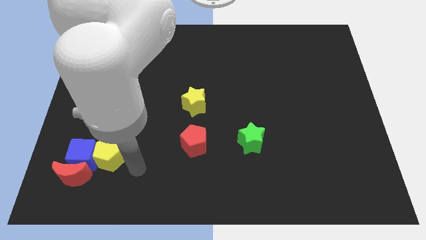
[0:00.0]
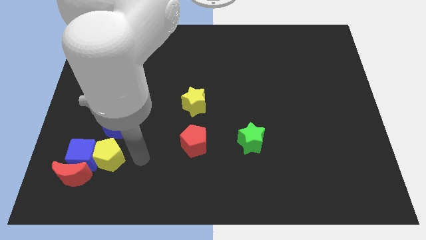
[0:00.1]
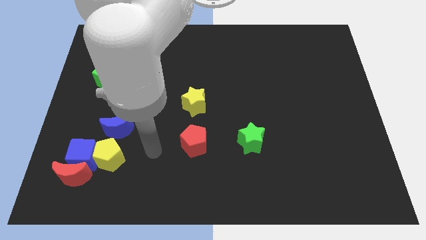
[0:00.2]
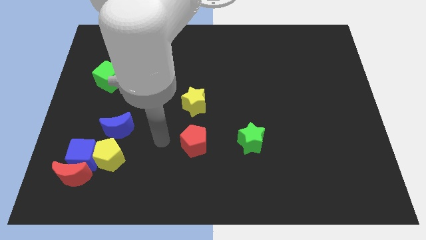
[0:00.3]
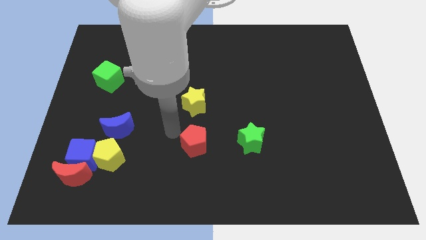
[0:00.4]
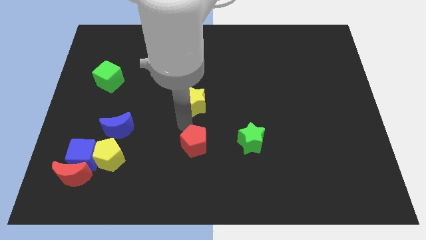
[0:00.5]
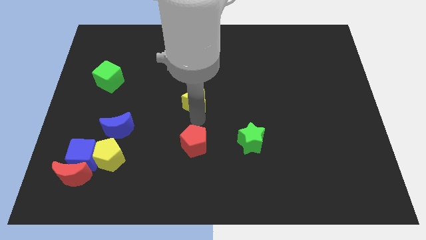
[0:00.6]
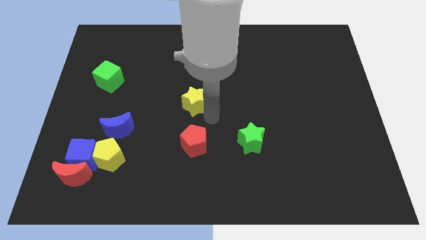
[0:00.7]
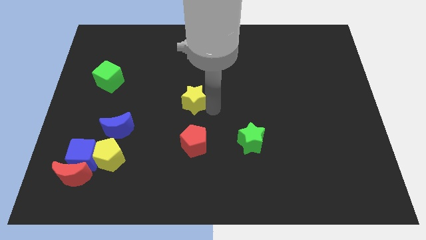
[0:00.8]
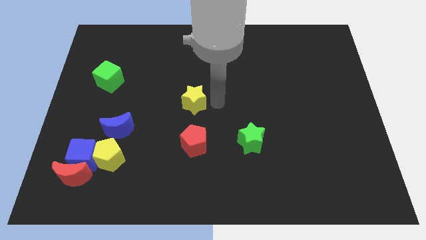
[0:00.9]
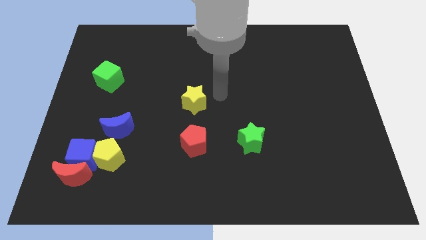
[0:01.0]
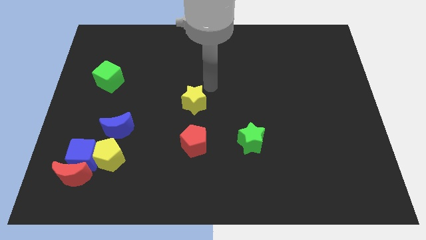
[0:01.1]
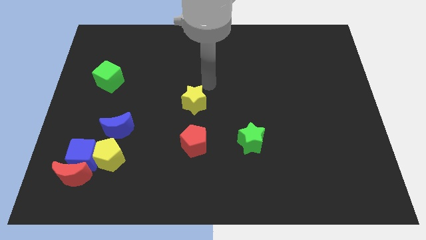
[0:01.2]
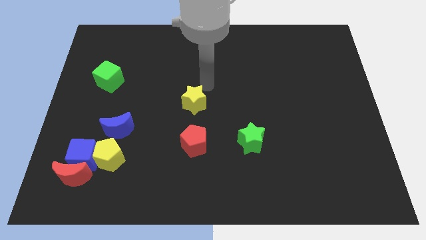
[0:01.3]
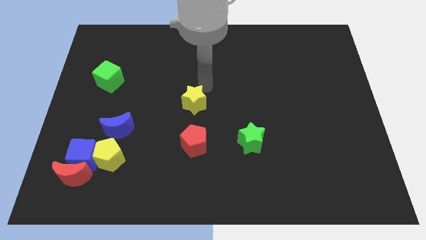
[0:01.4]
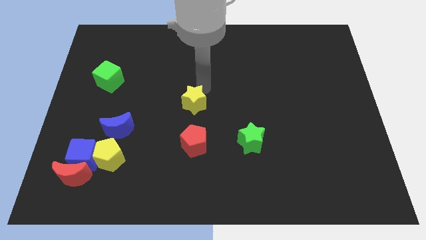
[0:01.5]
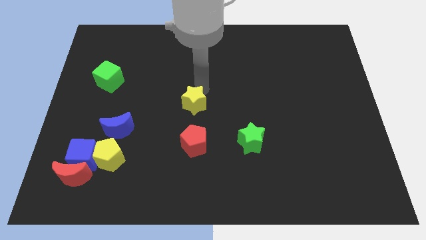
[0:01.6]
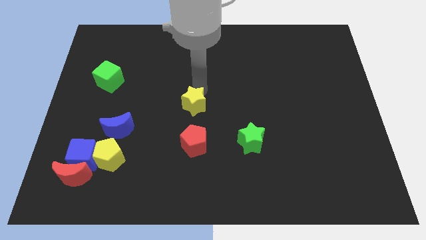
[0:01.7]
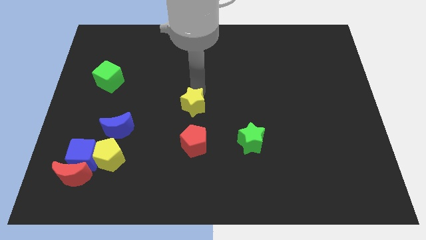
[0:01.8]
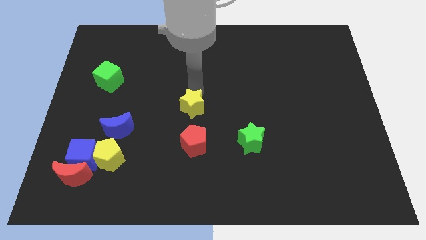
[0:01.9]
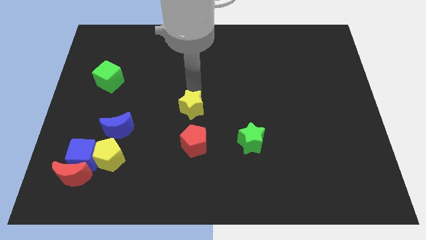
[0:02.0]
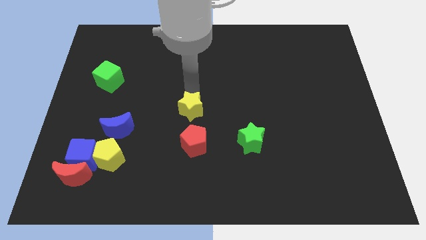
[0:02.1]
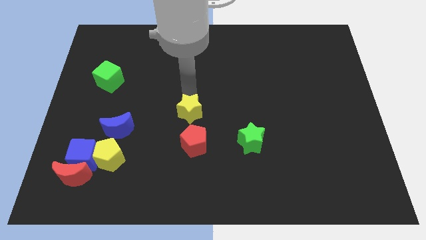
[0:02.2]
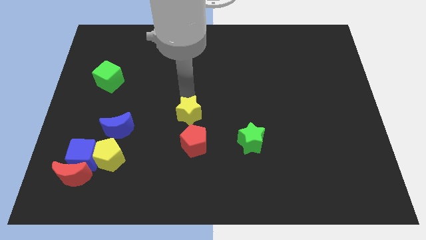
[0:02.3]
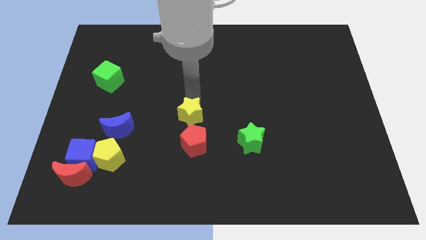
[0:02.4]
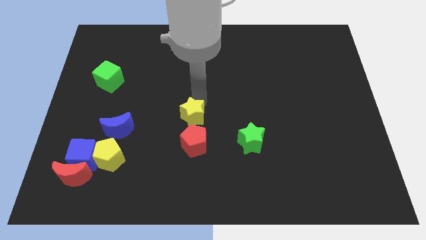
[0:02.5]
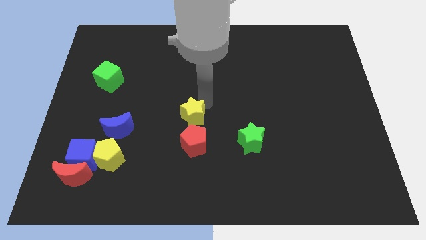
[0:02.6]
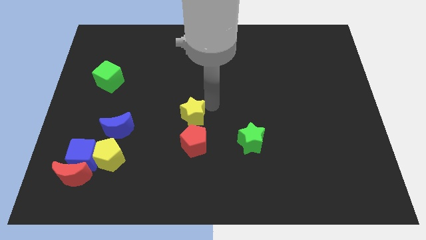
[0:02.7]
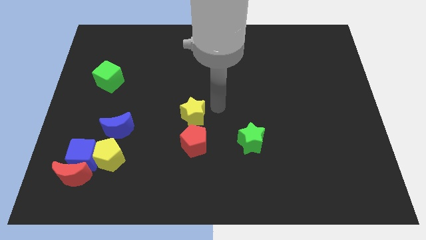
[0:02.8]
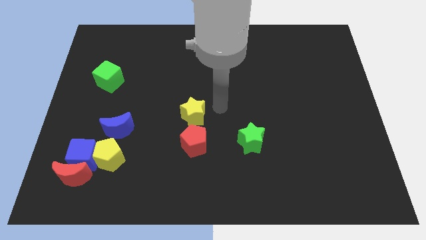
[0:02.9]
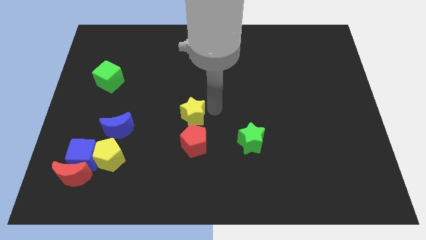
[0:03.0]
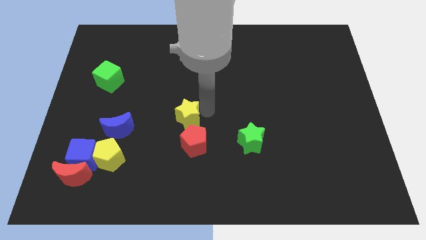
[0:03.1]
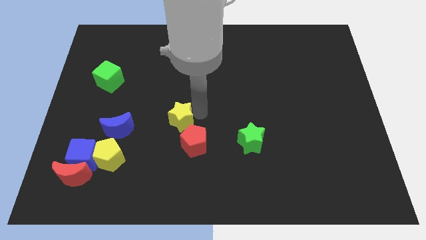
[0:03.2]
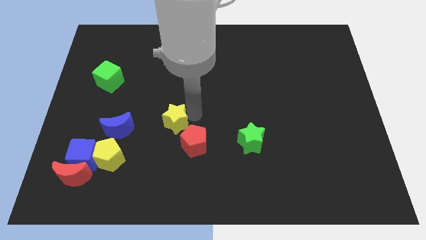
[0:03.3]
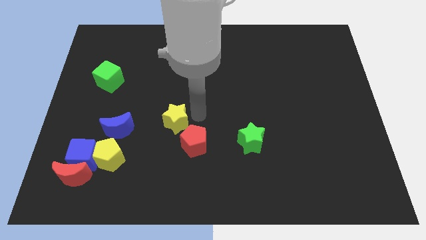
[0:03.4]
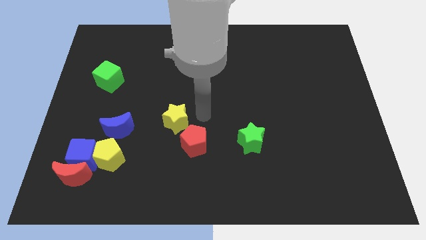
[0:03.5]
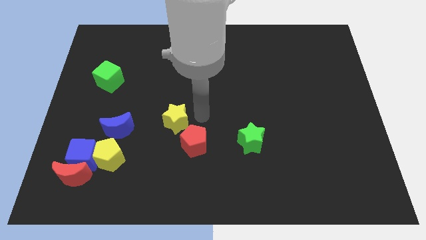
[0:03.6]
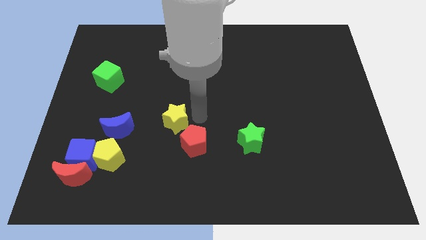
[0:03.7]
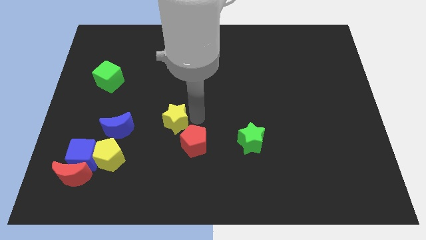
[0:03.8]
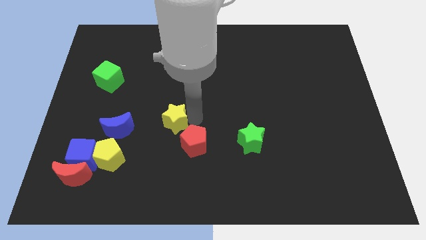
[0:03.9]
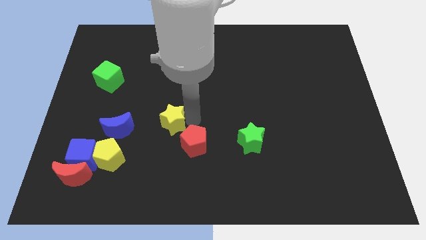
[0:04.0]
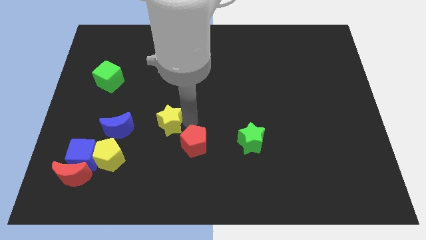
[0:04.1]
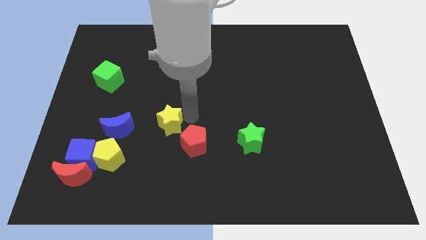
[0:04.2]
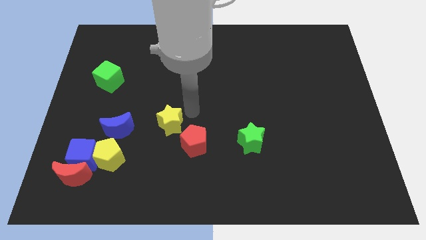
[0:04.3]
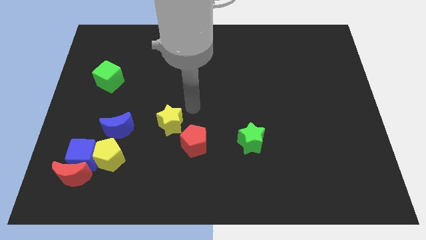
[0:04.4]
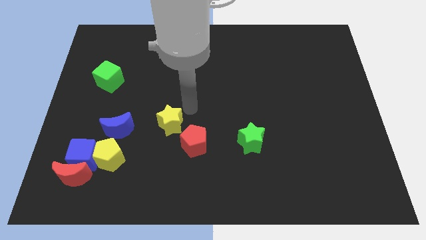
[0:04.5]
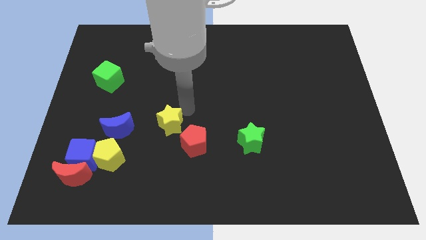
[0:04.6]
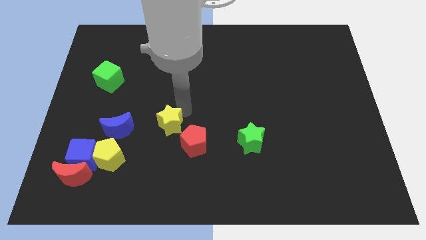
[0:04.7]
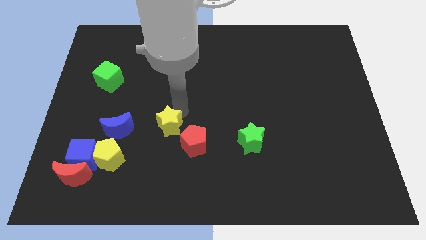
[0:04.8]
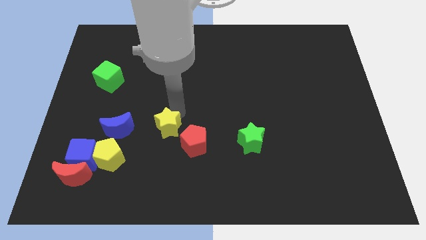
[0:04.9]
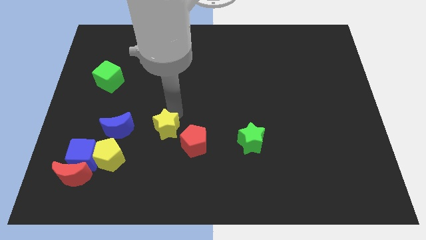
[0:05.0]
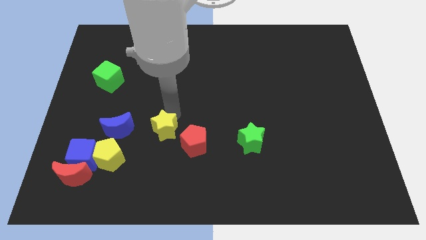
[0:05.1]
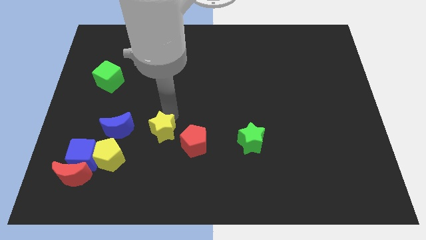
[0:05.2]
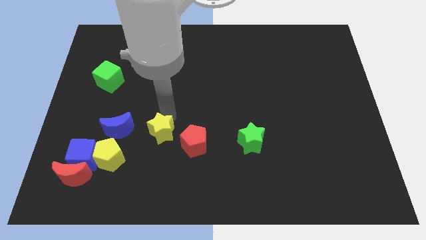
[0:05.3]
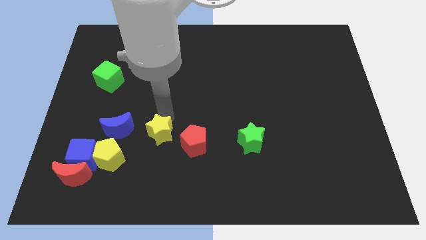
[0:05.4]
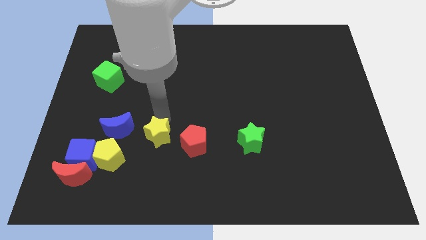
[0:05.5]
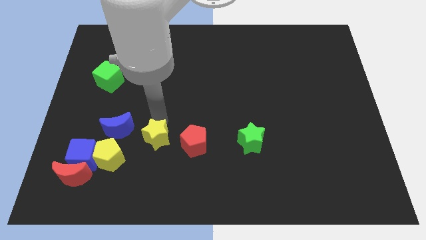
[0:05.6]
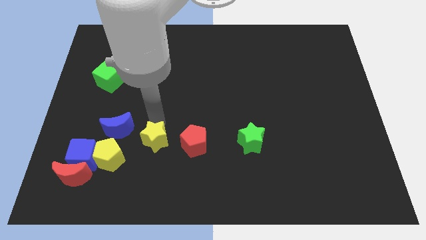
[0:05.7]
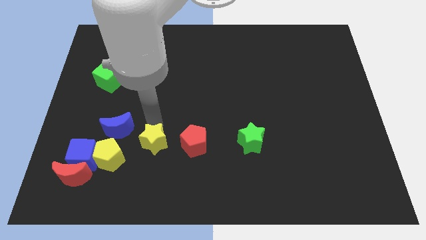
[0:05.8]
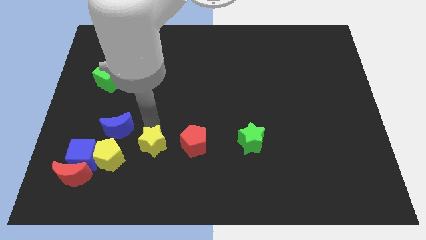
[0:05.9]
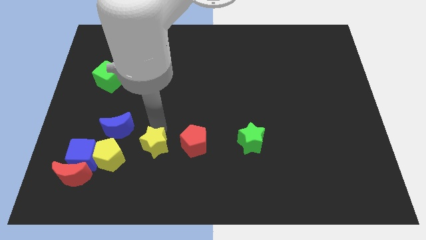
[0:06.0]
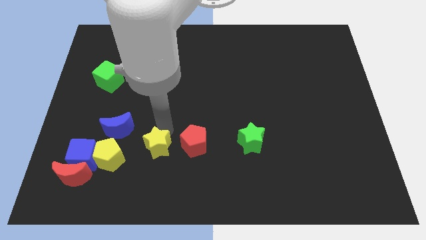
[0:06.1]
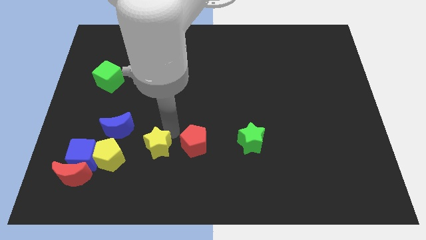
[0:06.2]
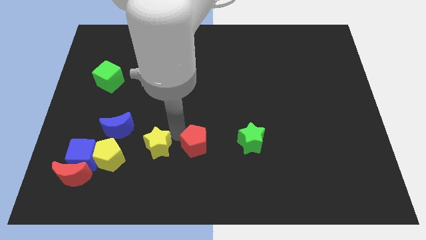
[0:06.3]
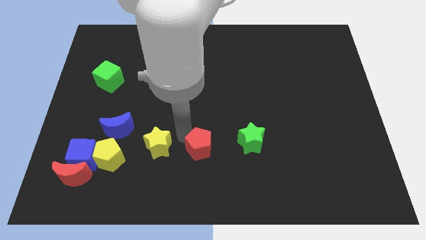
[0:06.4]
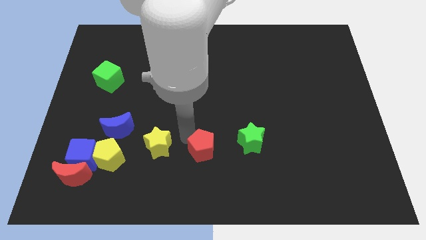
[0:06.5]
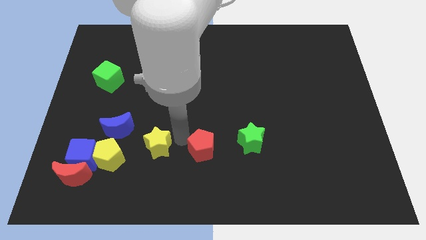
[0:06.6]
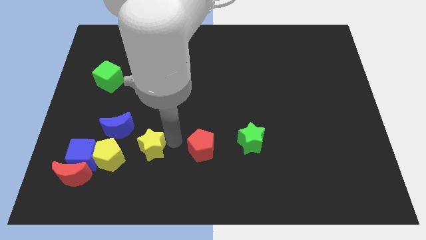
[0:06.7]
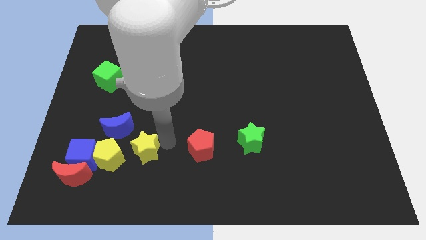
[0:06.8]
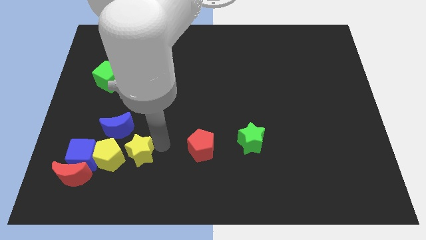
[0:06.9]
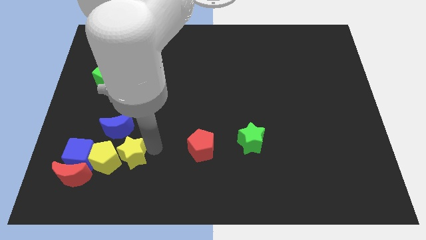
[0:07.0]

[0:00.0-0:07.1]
move the yellow star to the yellow pentagon

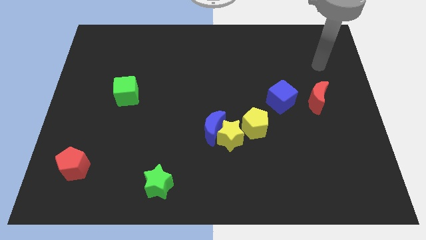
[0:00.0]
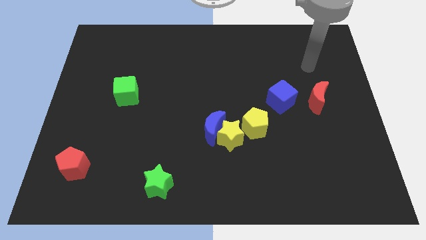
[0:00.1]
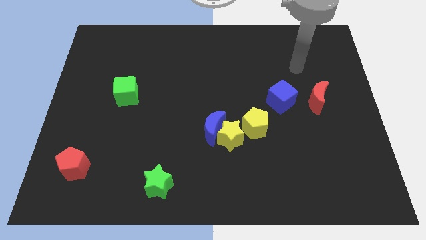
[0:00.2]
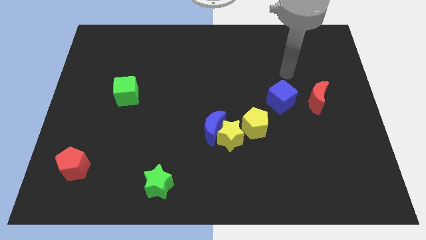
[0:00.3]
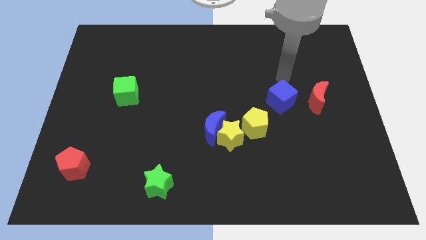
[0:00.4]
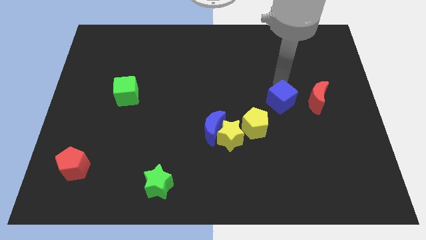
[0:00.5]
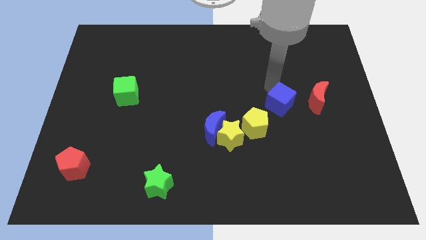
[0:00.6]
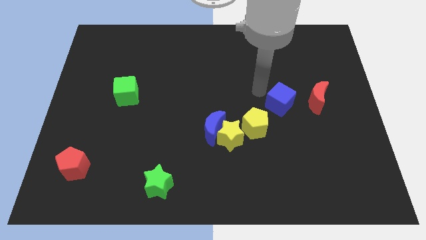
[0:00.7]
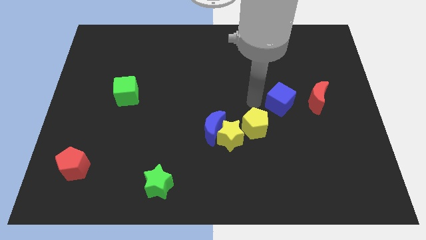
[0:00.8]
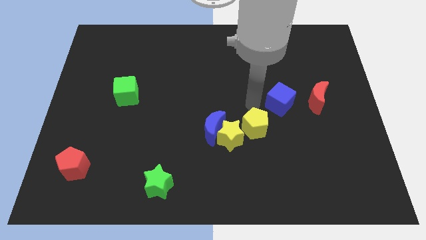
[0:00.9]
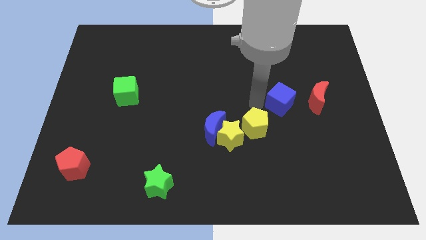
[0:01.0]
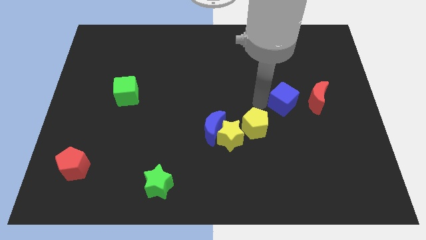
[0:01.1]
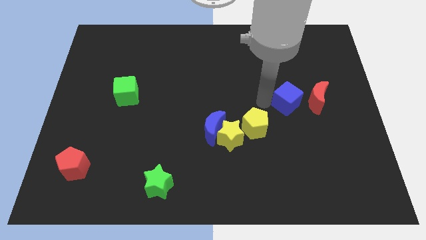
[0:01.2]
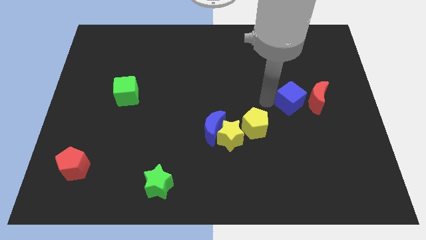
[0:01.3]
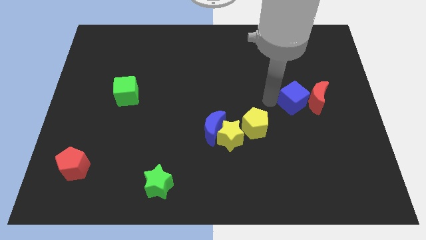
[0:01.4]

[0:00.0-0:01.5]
slide the blue cube towards the red moon
